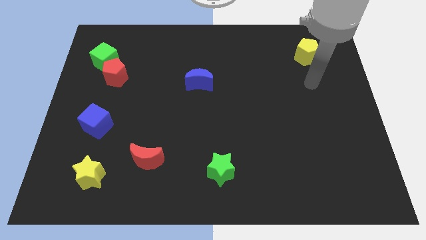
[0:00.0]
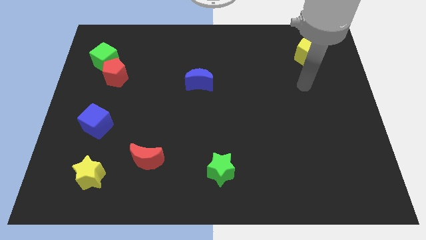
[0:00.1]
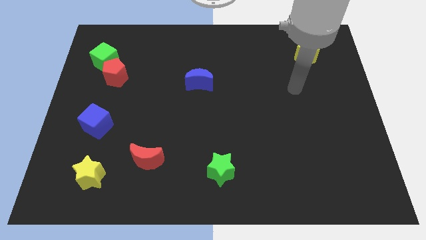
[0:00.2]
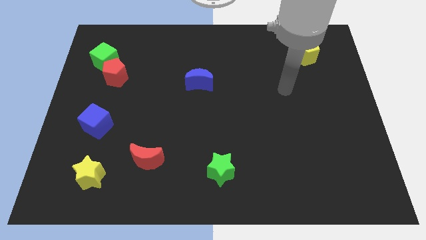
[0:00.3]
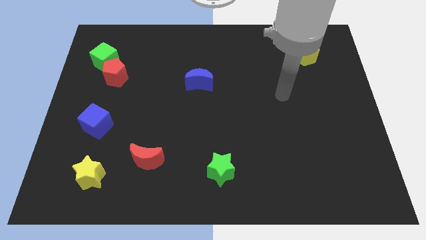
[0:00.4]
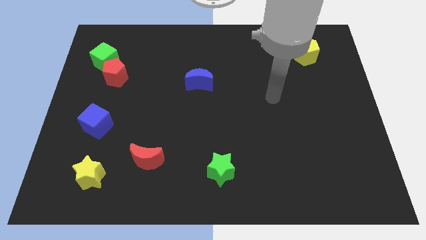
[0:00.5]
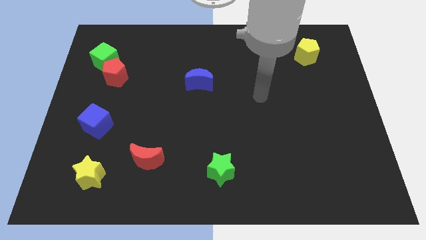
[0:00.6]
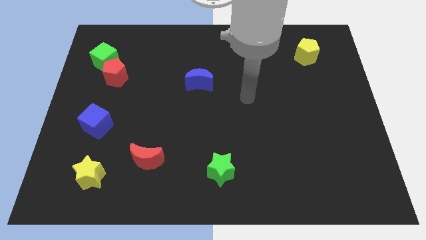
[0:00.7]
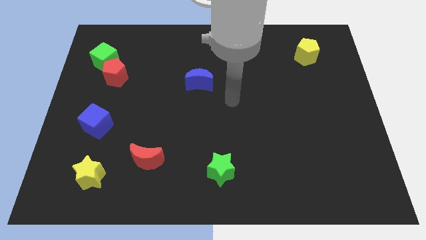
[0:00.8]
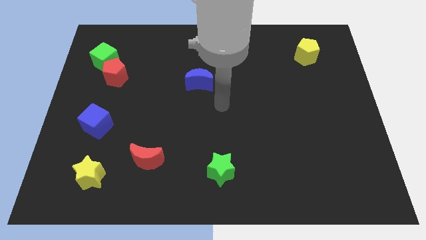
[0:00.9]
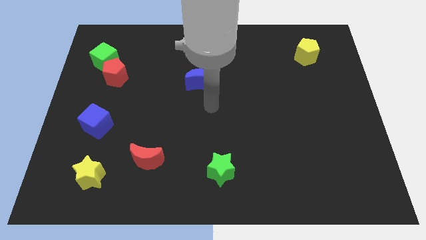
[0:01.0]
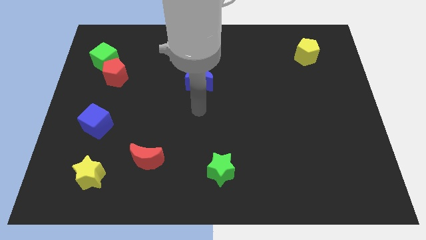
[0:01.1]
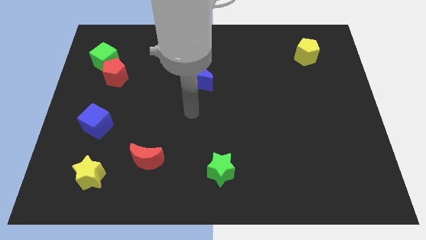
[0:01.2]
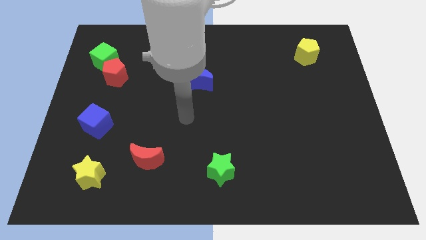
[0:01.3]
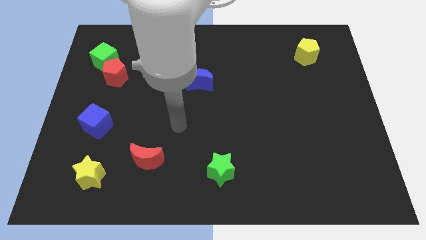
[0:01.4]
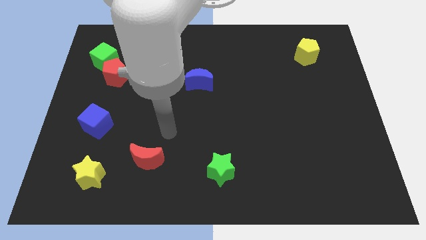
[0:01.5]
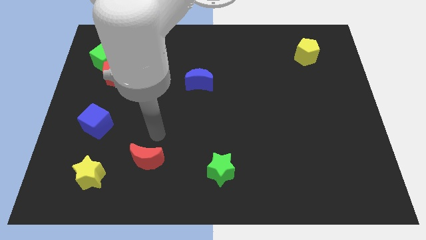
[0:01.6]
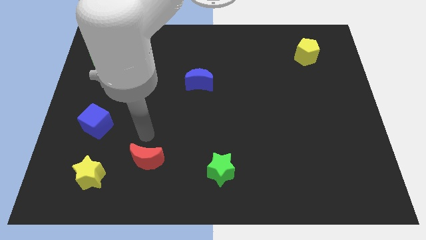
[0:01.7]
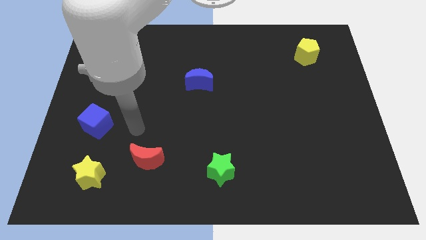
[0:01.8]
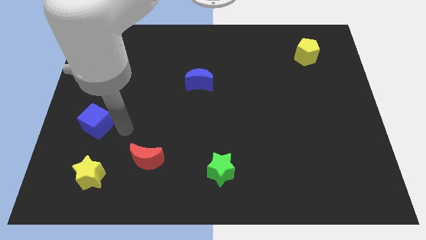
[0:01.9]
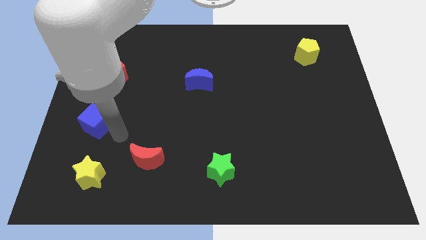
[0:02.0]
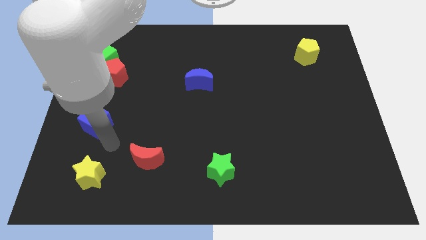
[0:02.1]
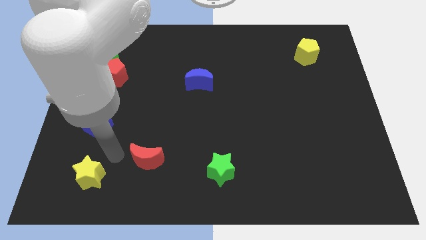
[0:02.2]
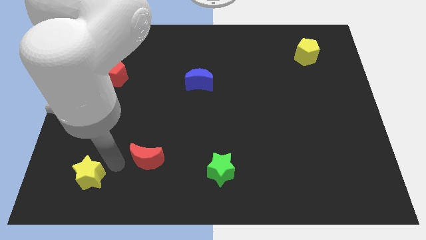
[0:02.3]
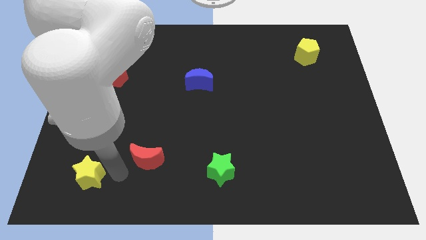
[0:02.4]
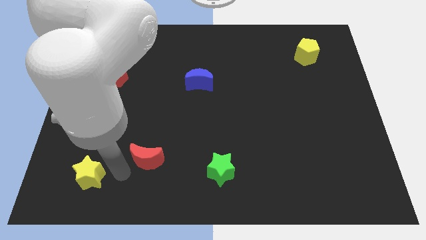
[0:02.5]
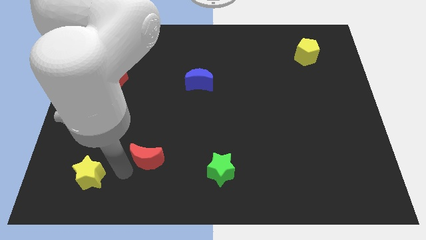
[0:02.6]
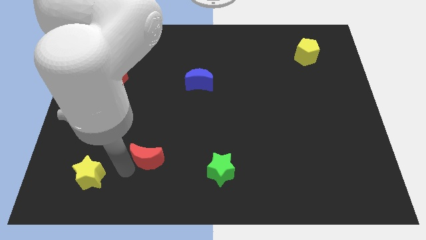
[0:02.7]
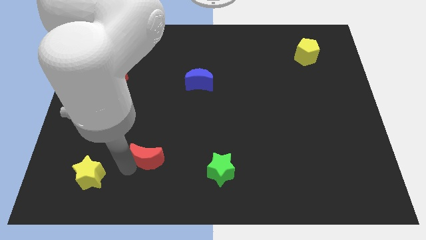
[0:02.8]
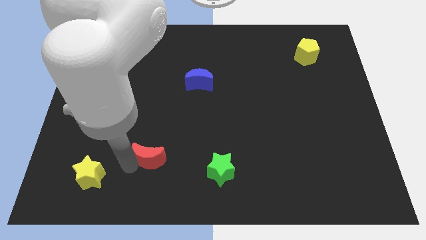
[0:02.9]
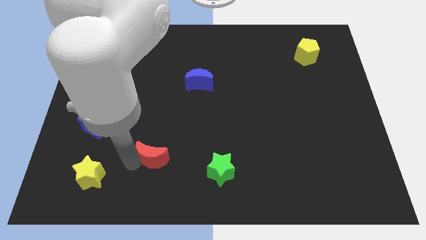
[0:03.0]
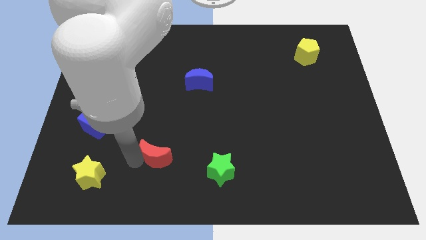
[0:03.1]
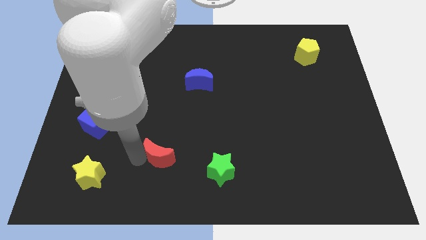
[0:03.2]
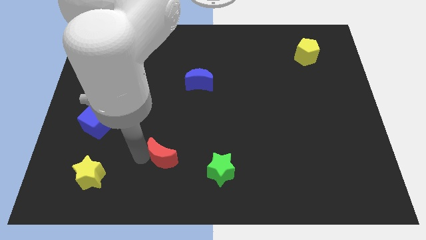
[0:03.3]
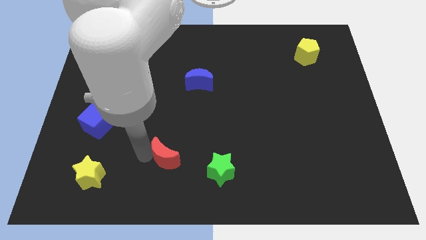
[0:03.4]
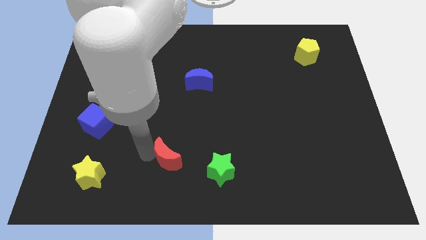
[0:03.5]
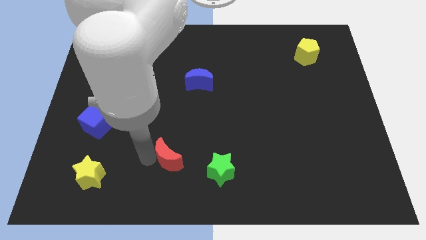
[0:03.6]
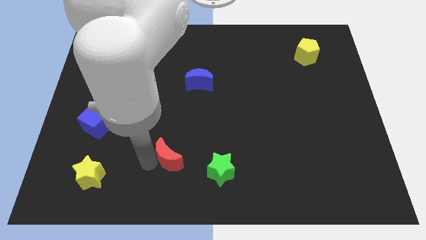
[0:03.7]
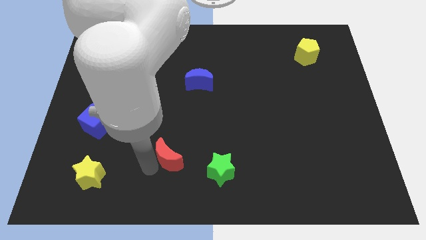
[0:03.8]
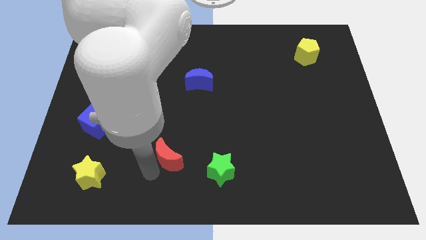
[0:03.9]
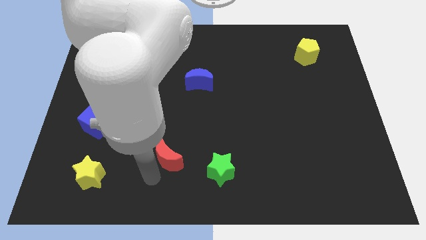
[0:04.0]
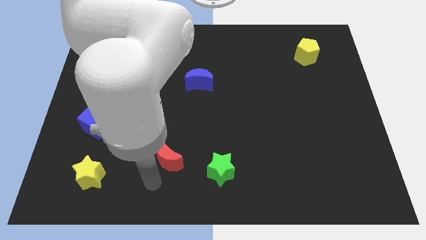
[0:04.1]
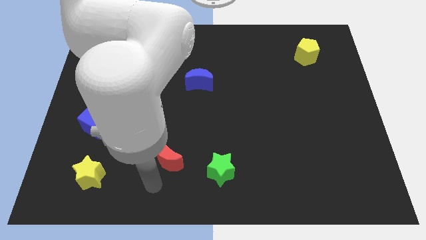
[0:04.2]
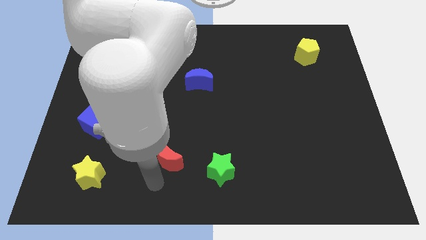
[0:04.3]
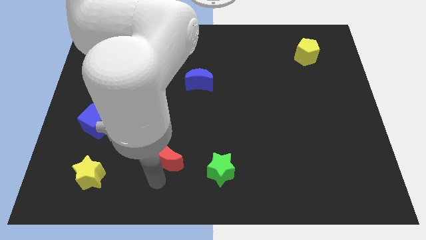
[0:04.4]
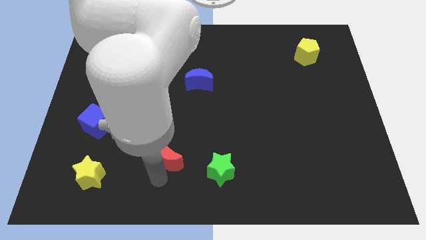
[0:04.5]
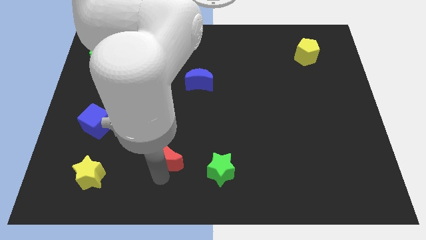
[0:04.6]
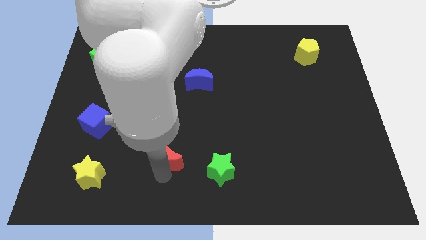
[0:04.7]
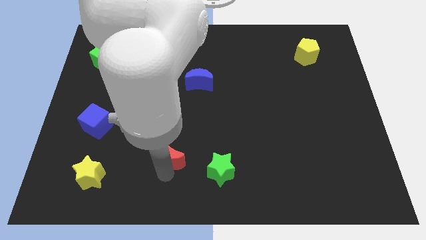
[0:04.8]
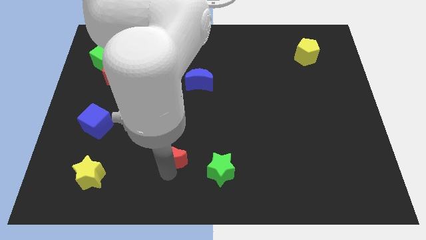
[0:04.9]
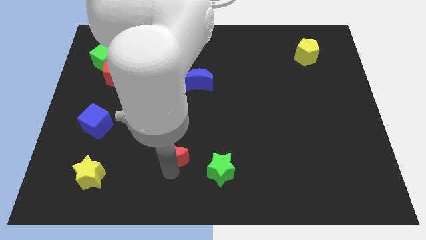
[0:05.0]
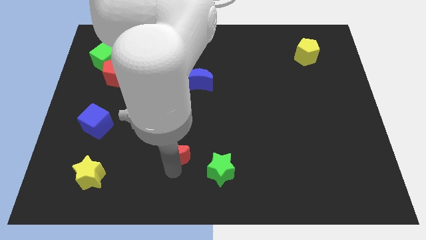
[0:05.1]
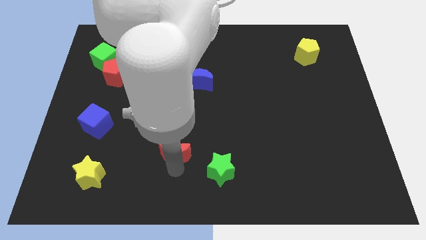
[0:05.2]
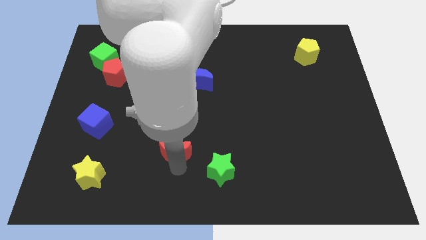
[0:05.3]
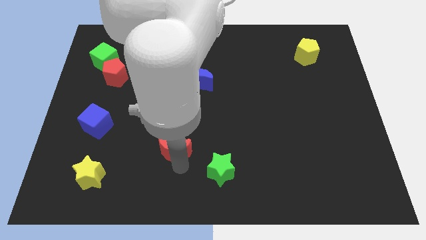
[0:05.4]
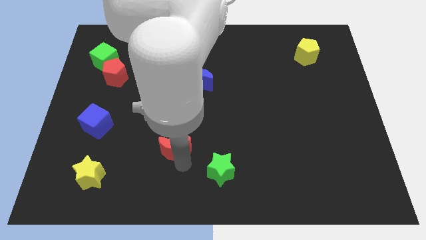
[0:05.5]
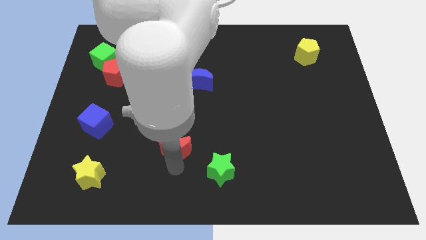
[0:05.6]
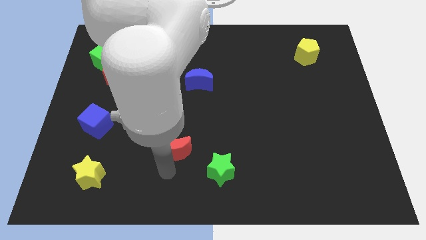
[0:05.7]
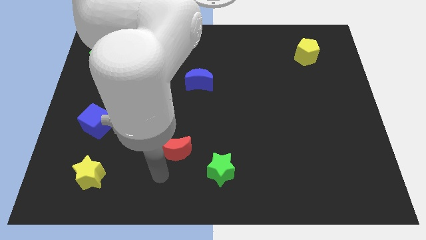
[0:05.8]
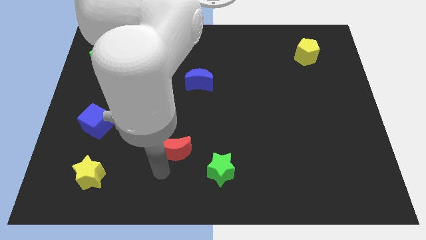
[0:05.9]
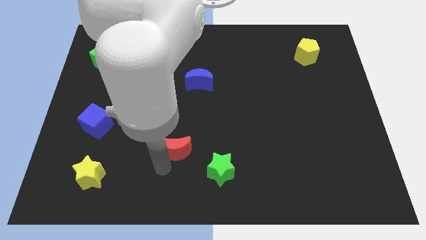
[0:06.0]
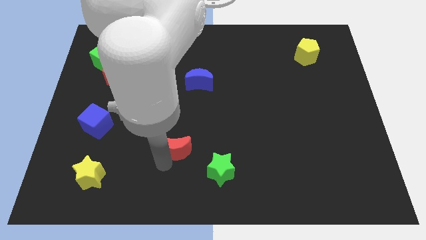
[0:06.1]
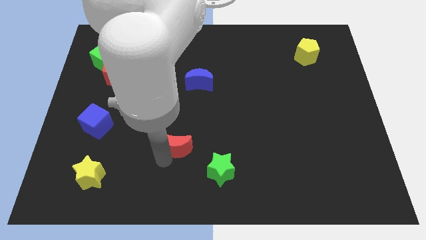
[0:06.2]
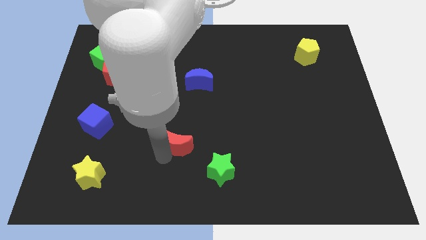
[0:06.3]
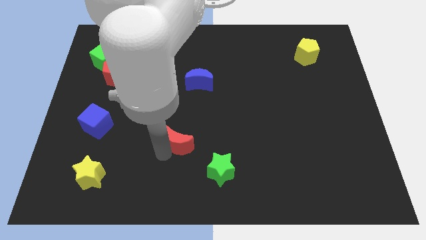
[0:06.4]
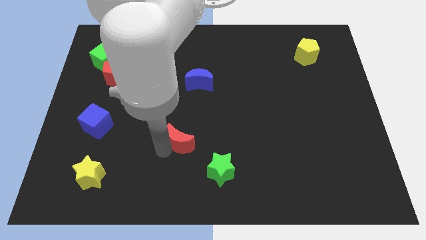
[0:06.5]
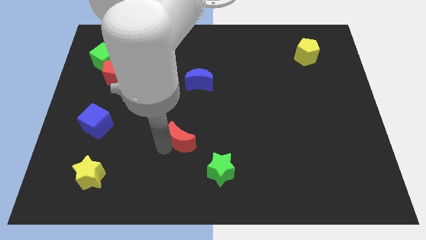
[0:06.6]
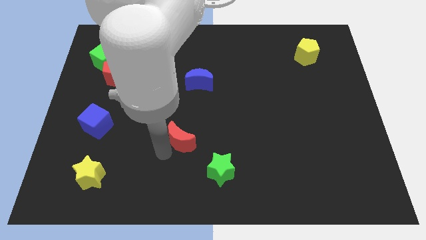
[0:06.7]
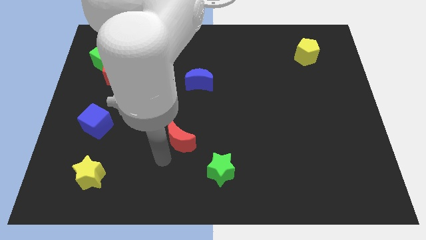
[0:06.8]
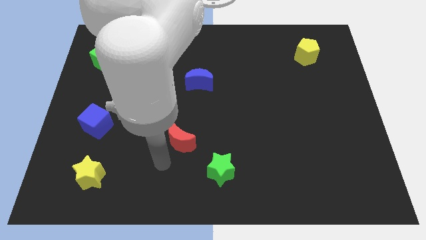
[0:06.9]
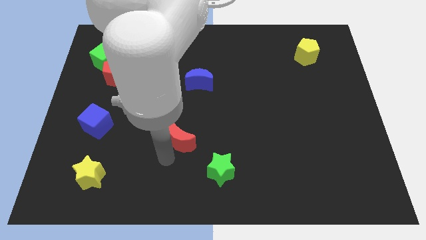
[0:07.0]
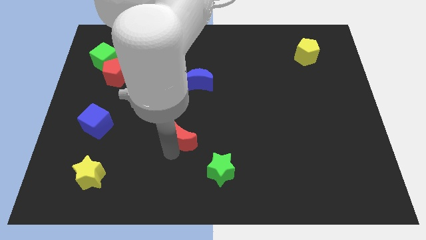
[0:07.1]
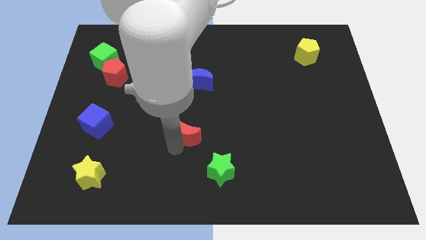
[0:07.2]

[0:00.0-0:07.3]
push the red moon to the center

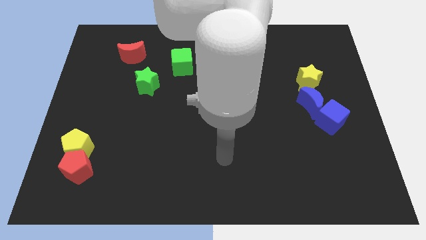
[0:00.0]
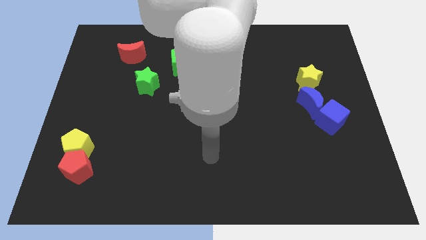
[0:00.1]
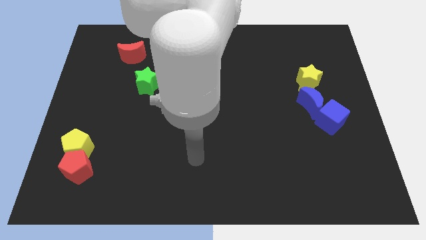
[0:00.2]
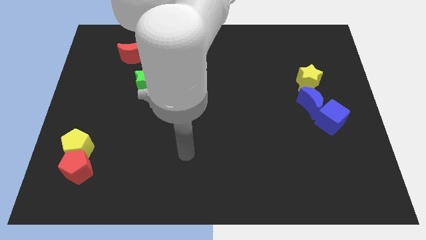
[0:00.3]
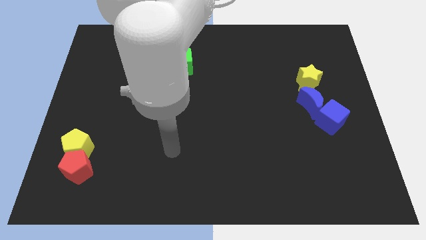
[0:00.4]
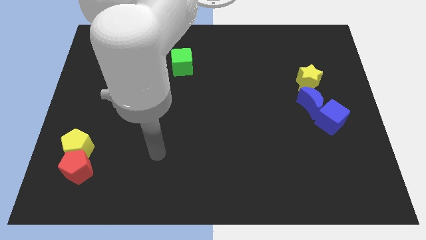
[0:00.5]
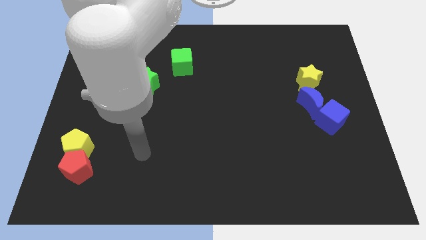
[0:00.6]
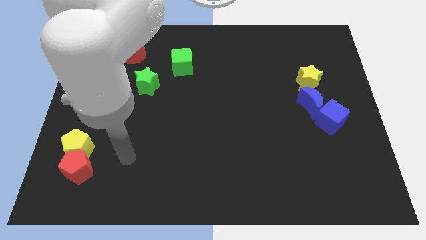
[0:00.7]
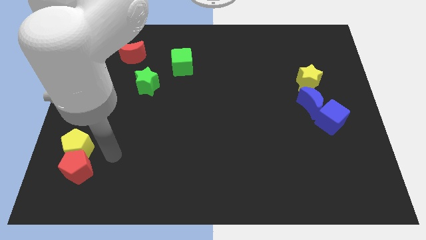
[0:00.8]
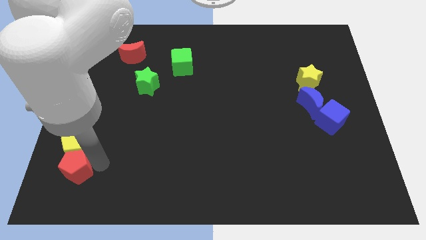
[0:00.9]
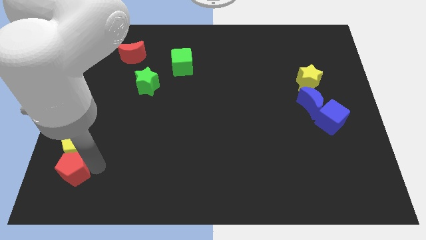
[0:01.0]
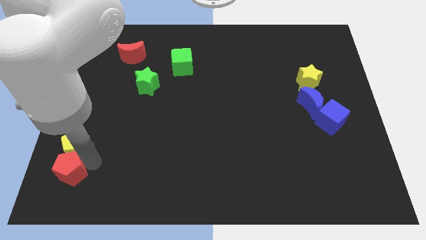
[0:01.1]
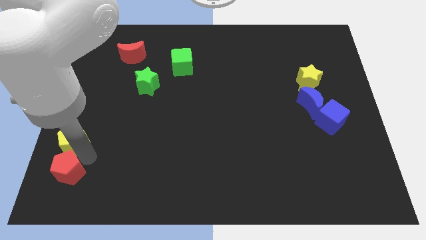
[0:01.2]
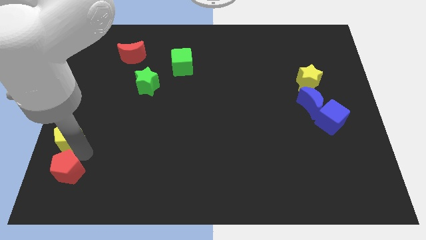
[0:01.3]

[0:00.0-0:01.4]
push the yellow pentagon to the left side
